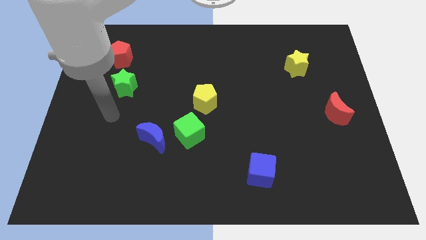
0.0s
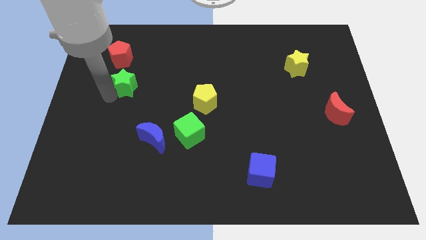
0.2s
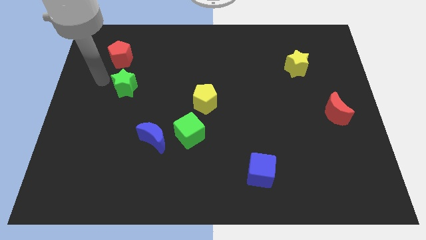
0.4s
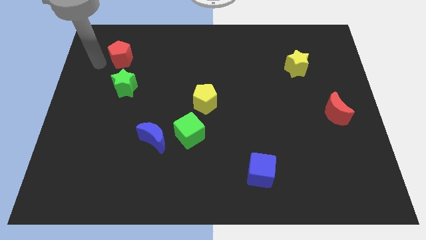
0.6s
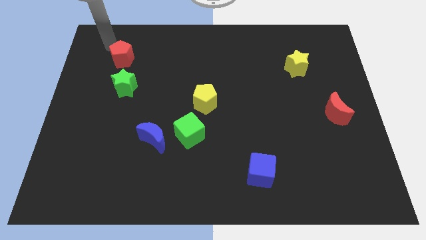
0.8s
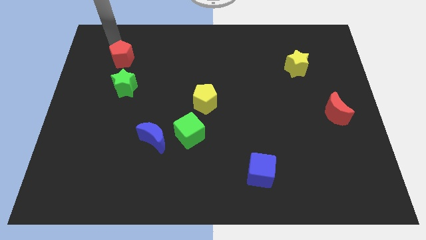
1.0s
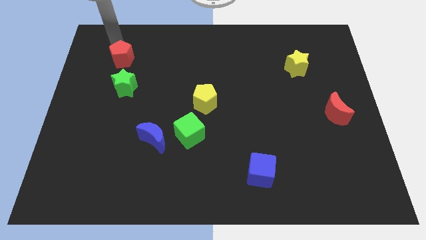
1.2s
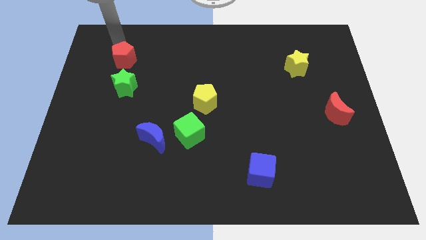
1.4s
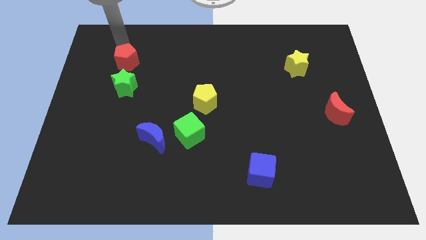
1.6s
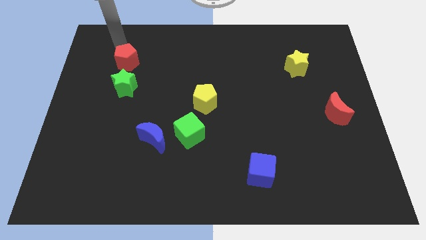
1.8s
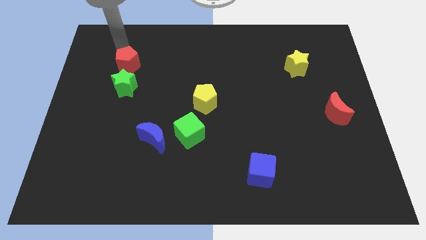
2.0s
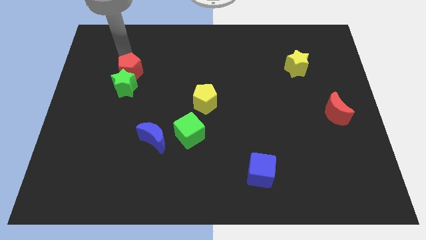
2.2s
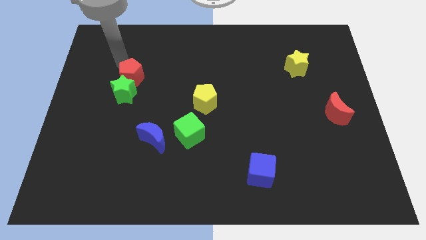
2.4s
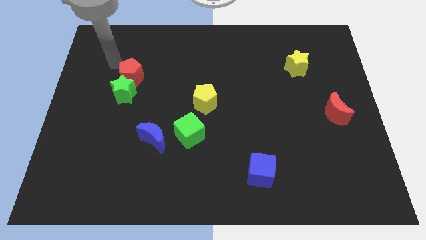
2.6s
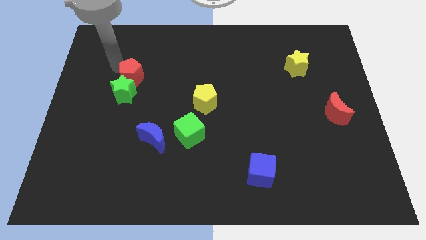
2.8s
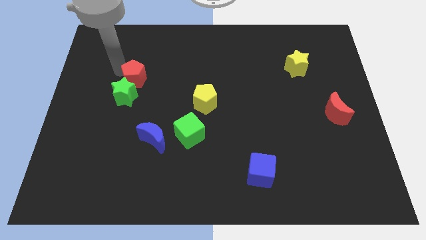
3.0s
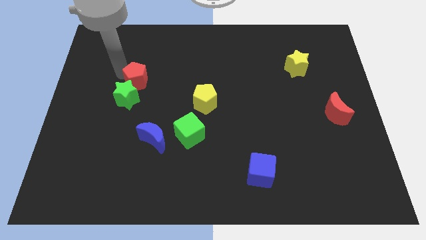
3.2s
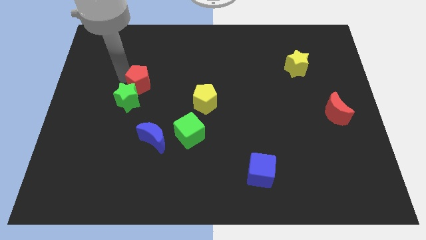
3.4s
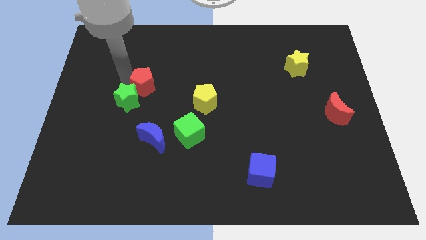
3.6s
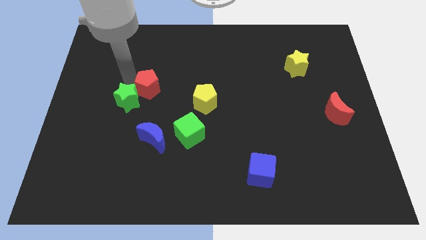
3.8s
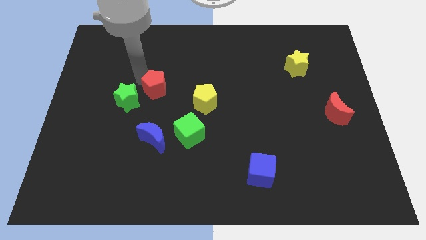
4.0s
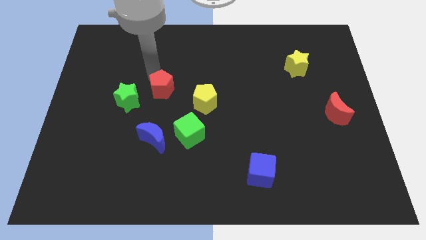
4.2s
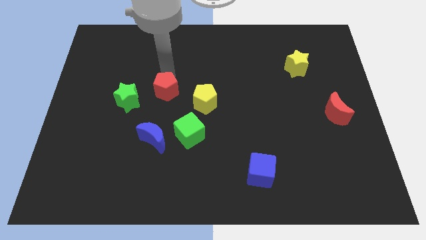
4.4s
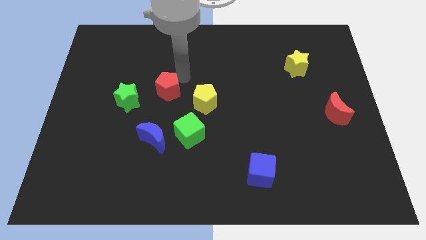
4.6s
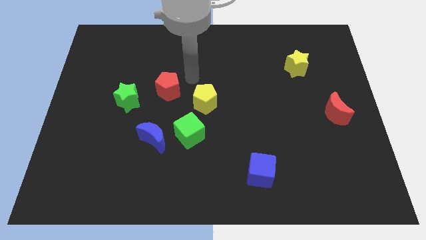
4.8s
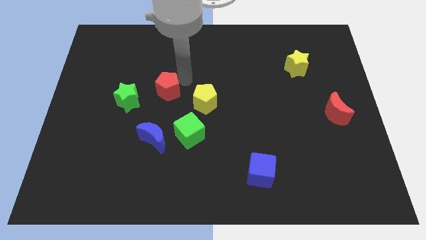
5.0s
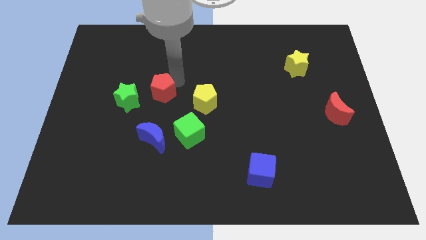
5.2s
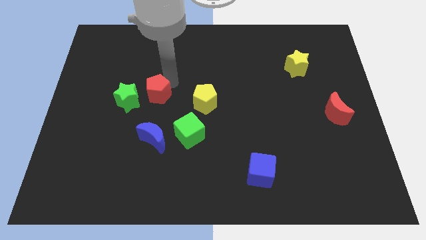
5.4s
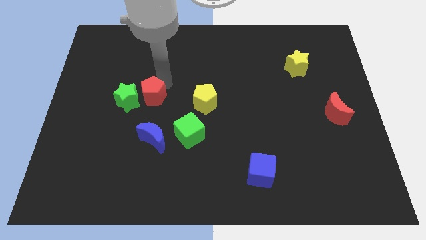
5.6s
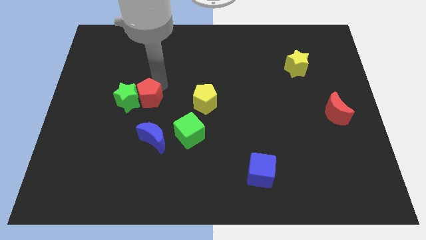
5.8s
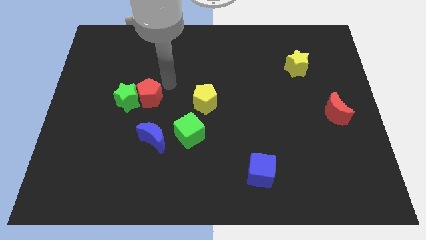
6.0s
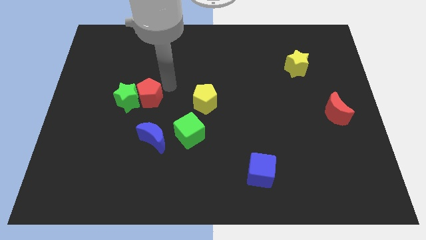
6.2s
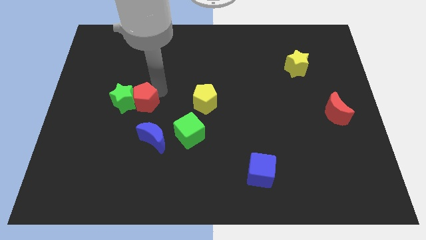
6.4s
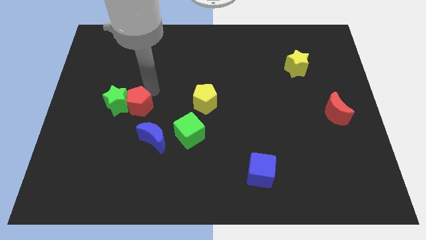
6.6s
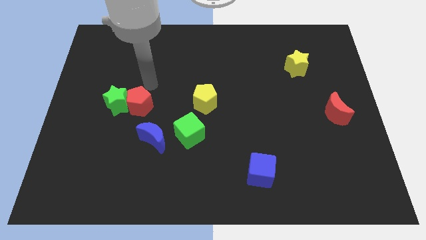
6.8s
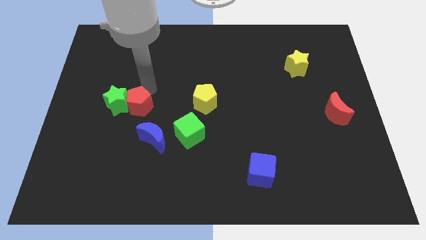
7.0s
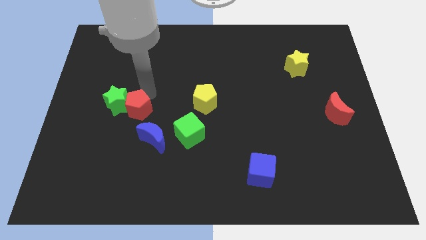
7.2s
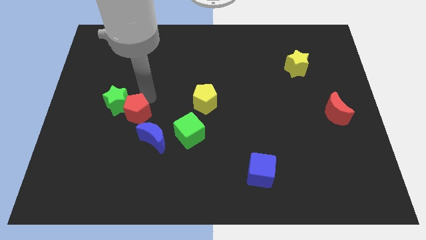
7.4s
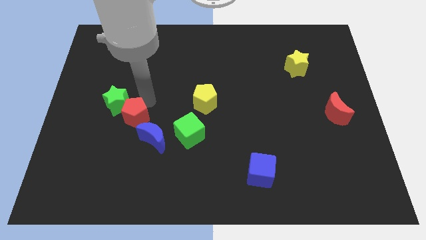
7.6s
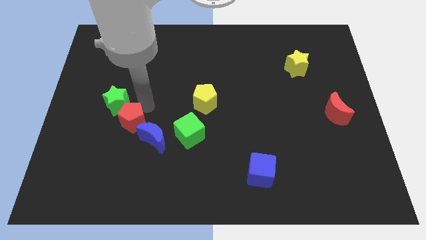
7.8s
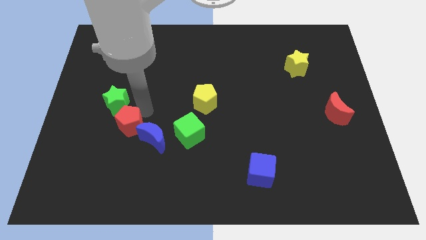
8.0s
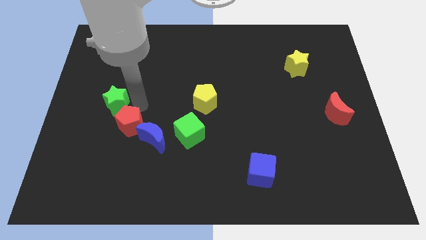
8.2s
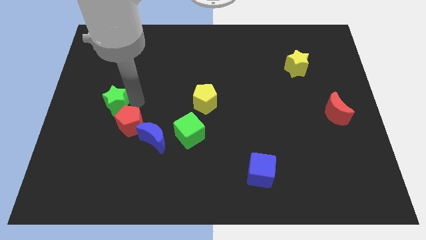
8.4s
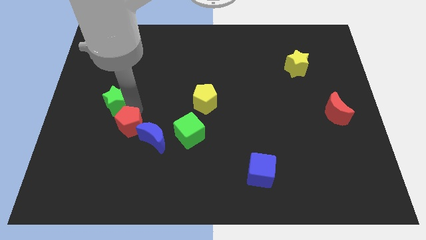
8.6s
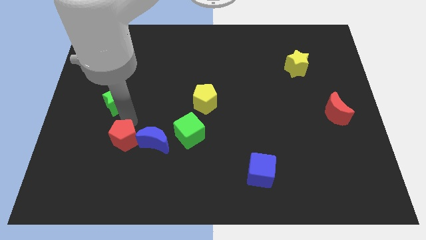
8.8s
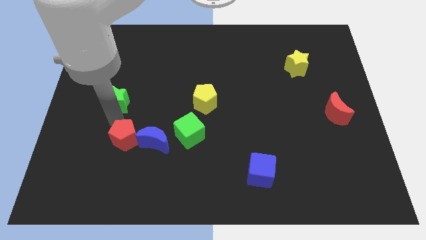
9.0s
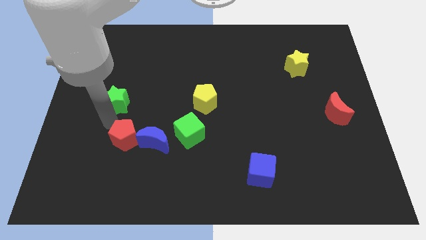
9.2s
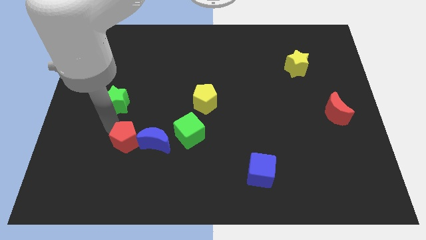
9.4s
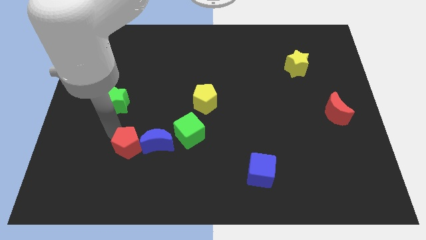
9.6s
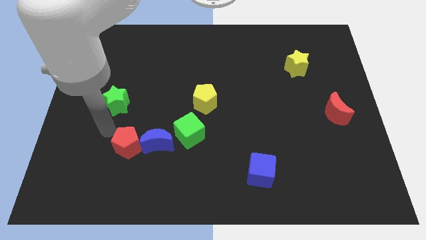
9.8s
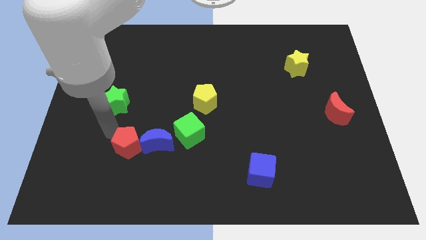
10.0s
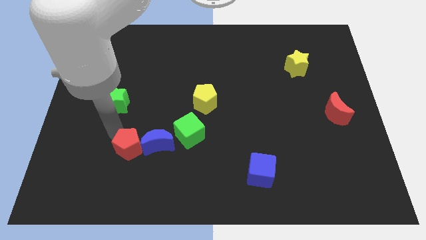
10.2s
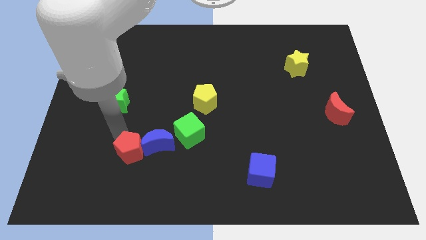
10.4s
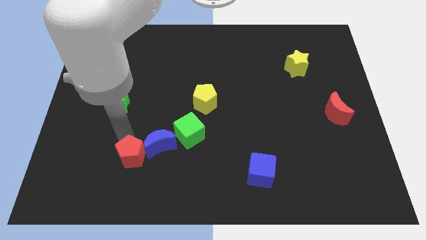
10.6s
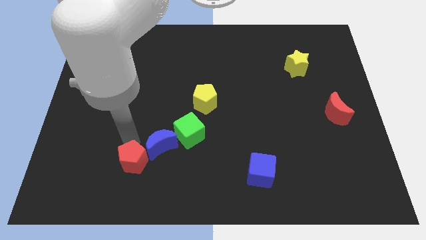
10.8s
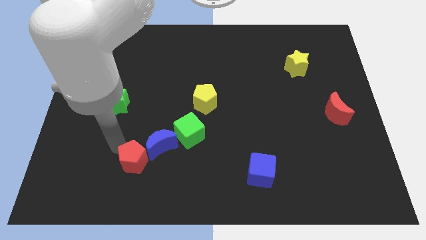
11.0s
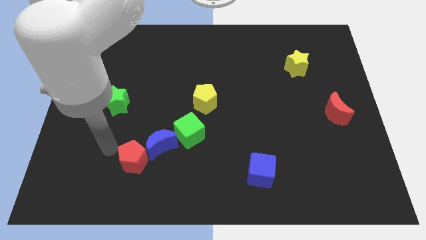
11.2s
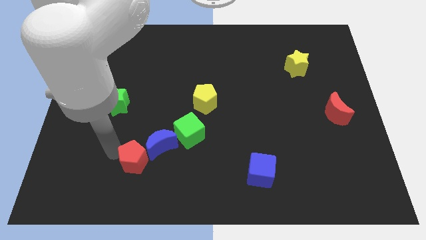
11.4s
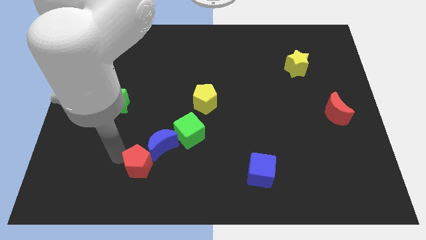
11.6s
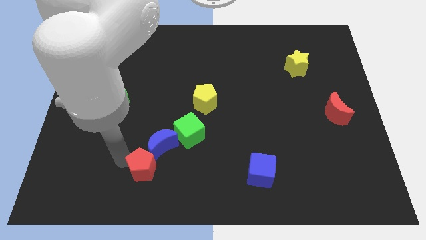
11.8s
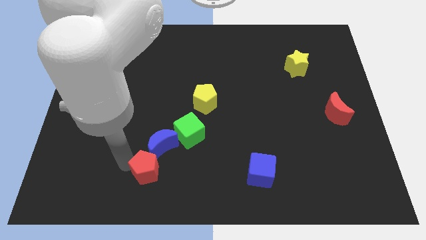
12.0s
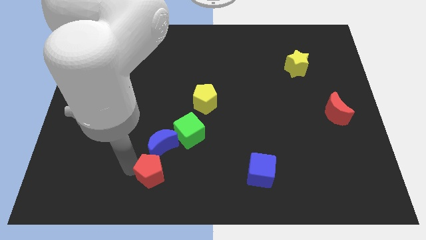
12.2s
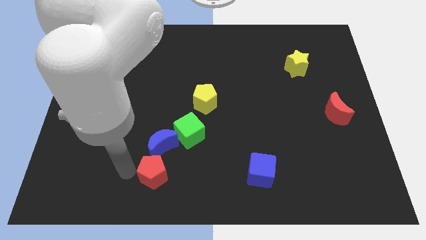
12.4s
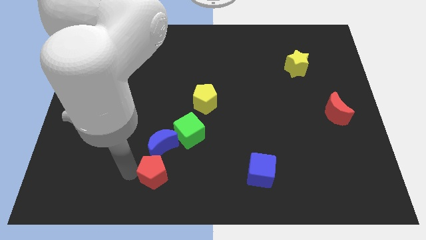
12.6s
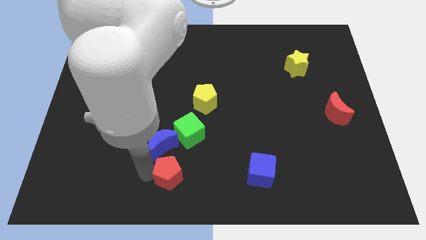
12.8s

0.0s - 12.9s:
push the red pentagon to the bottom side of the green cube

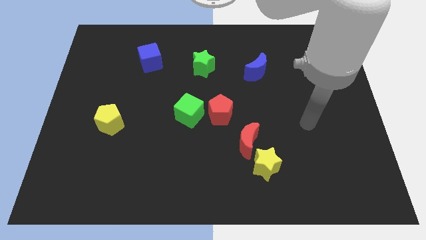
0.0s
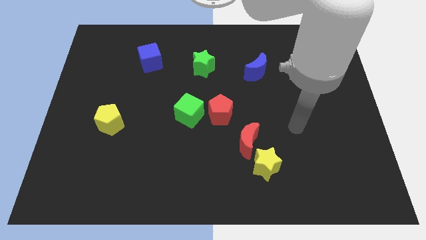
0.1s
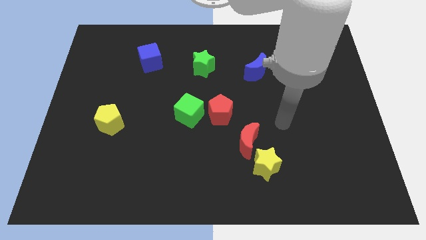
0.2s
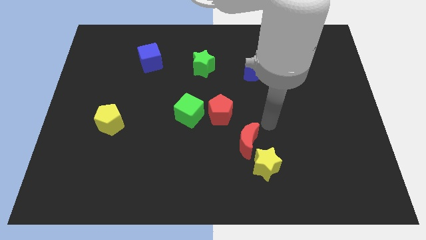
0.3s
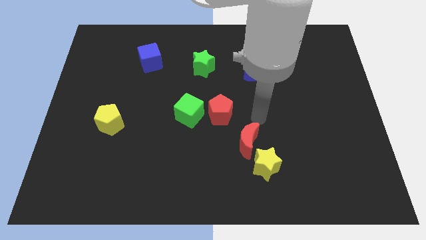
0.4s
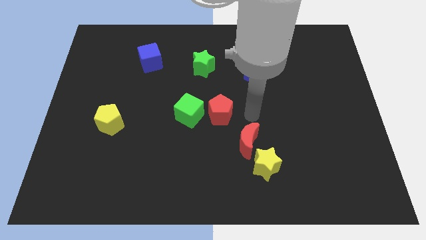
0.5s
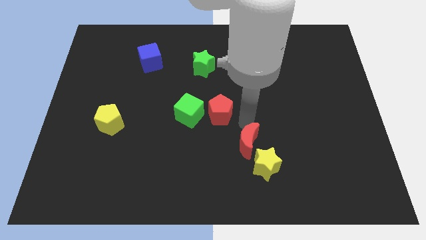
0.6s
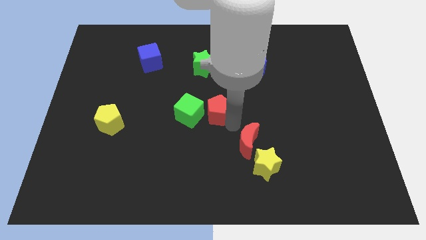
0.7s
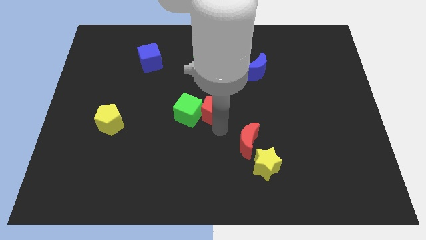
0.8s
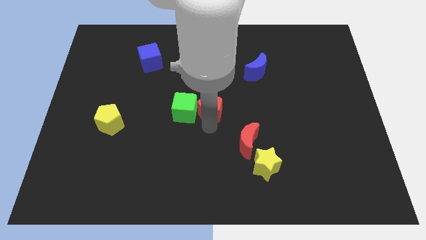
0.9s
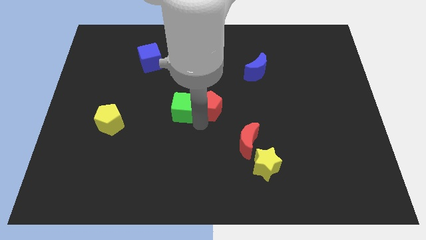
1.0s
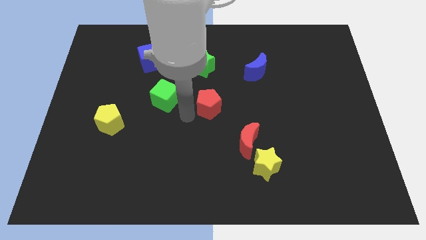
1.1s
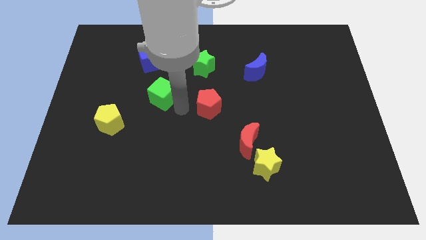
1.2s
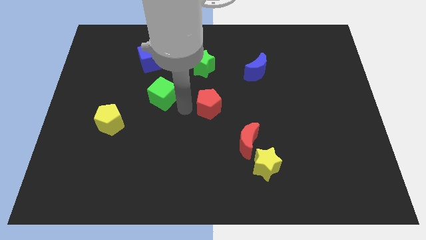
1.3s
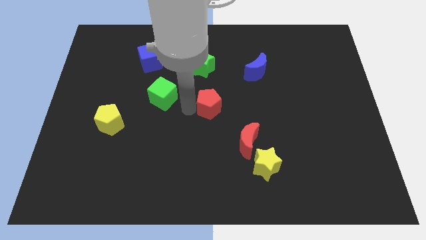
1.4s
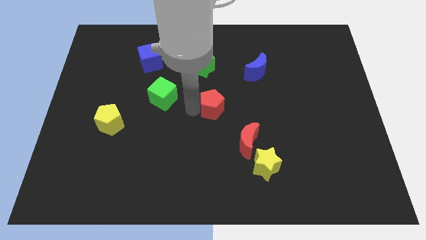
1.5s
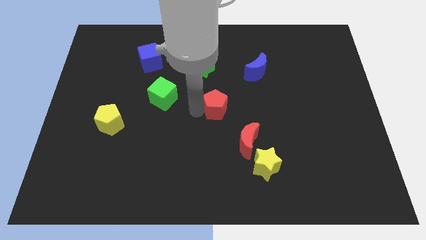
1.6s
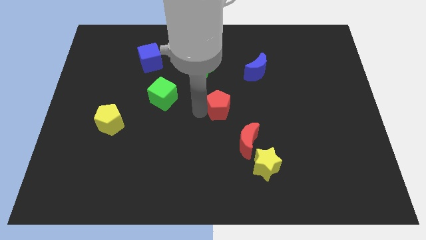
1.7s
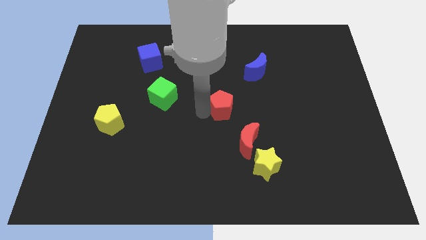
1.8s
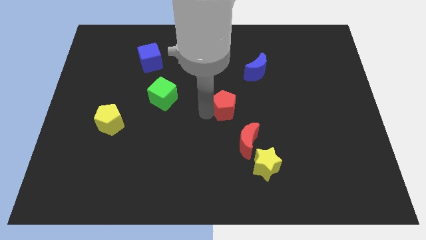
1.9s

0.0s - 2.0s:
move the red pentagon to the top side of the red moon
